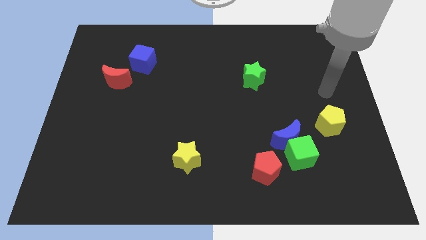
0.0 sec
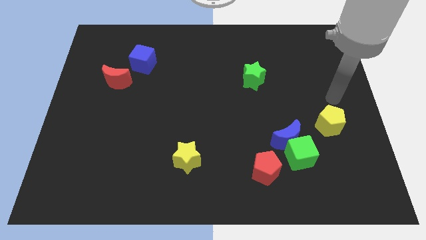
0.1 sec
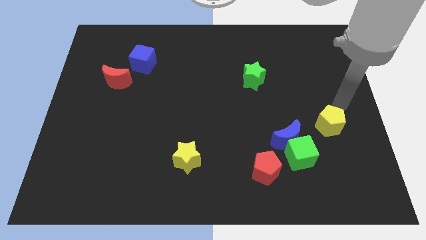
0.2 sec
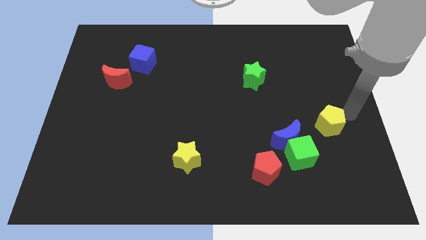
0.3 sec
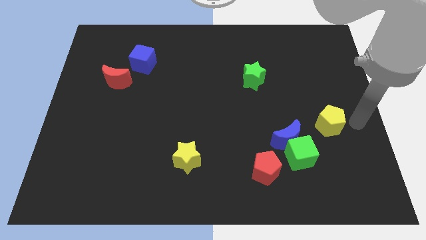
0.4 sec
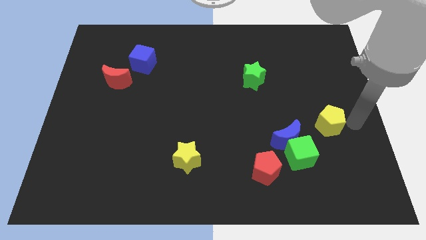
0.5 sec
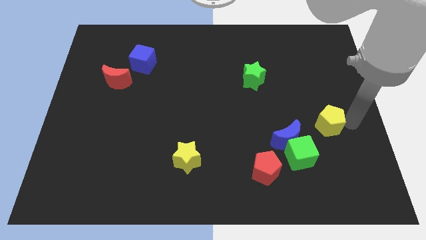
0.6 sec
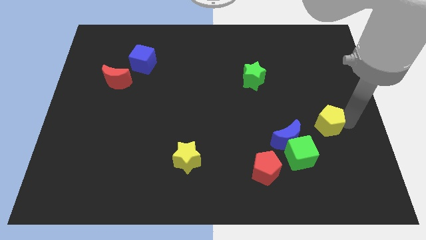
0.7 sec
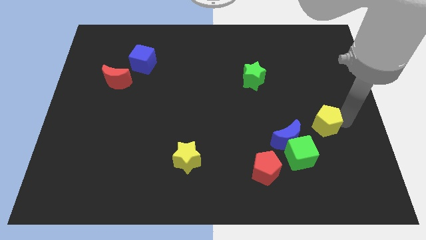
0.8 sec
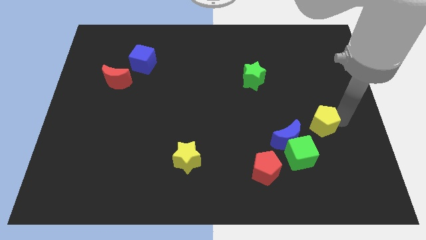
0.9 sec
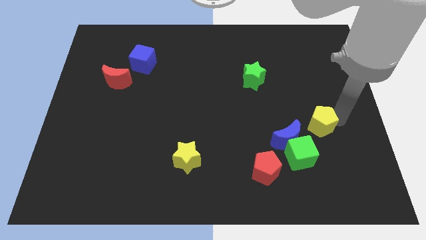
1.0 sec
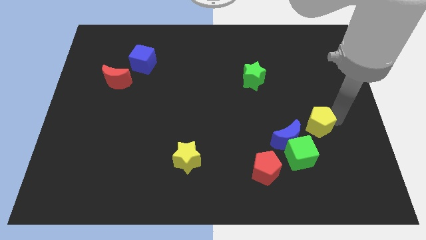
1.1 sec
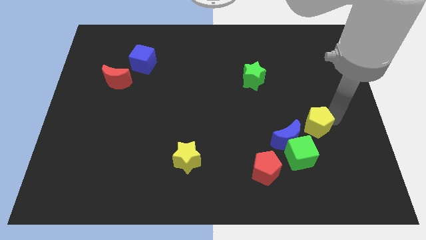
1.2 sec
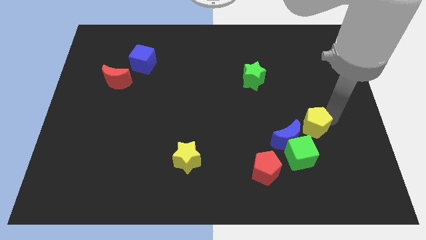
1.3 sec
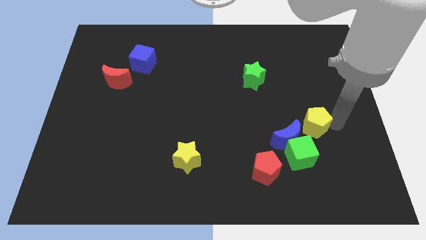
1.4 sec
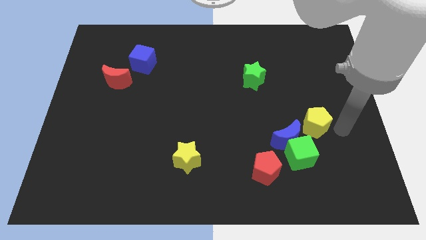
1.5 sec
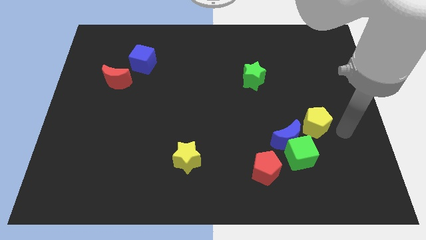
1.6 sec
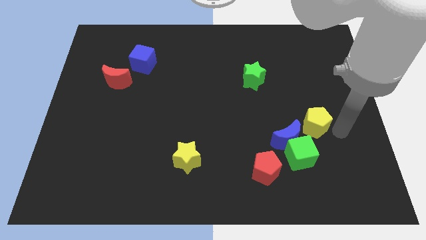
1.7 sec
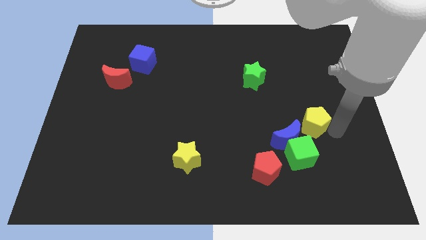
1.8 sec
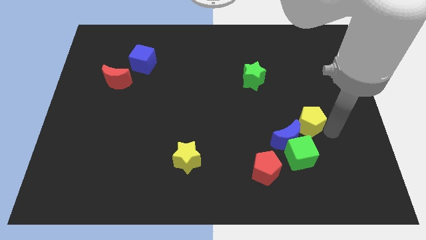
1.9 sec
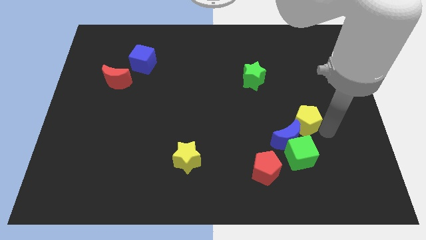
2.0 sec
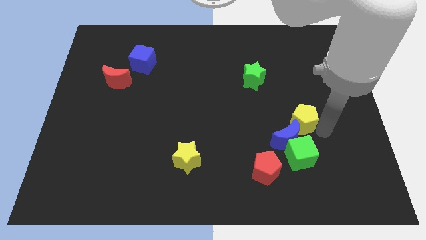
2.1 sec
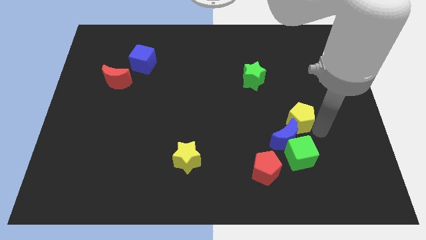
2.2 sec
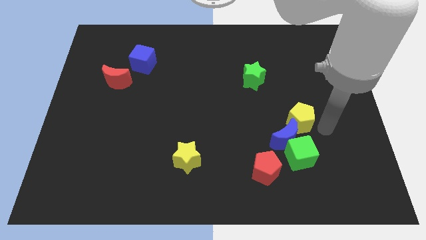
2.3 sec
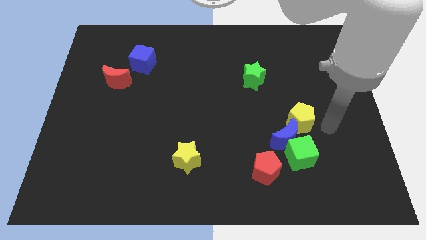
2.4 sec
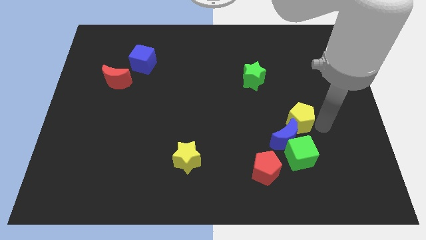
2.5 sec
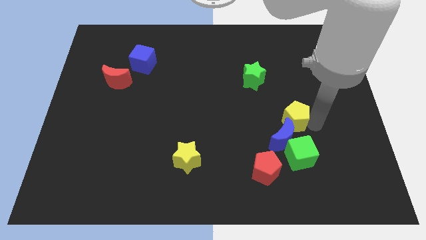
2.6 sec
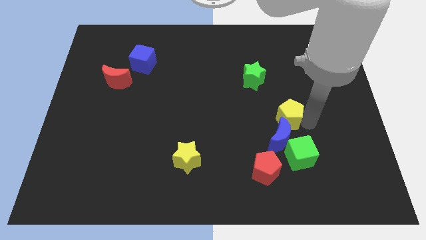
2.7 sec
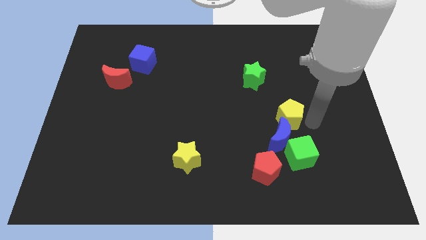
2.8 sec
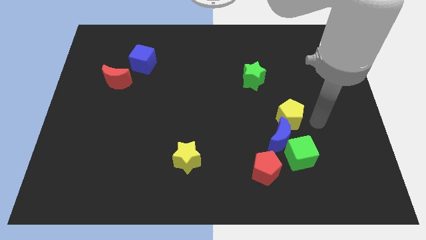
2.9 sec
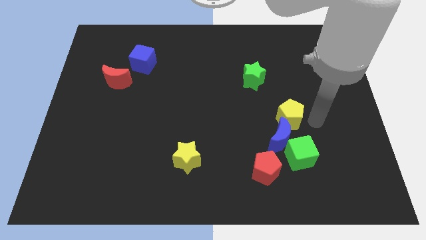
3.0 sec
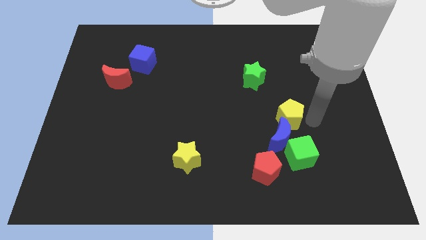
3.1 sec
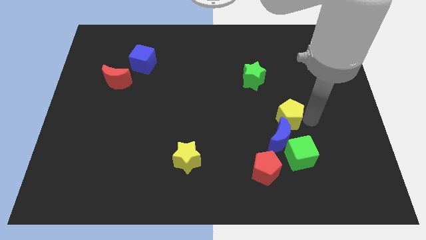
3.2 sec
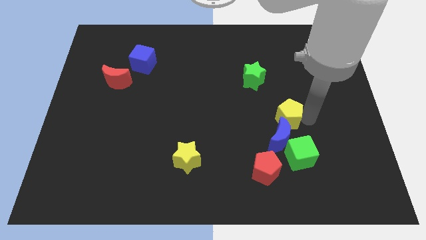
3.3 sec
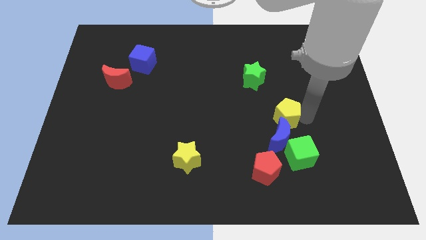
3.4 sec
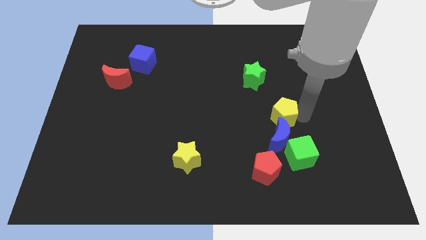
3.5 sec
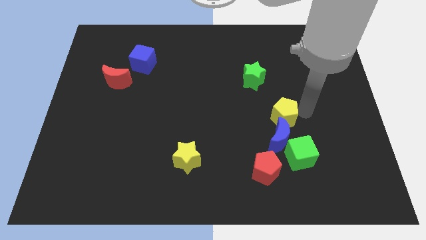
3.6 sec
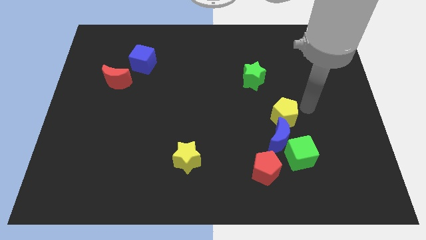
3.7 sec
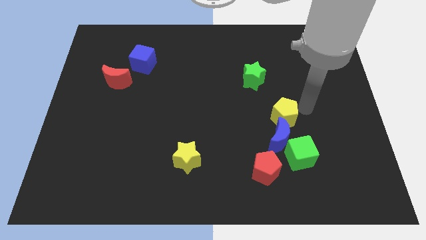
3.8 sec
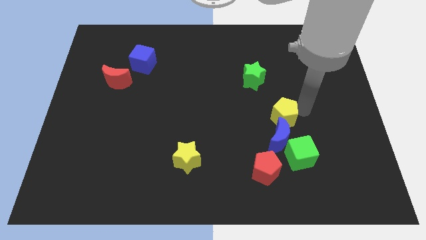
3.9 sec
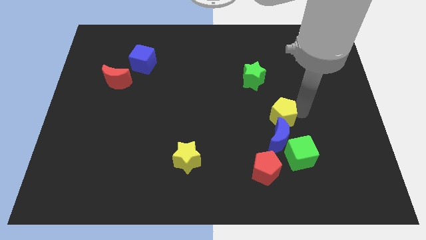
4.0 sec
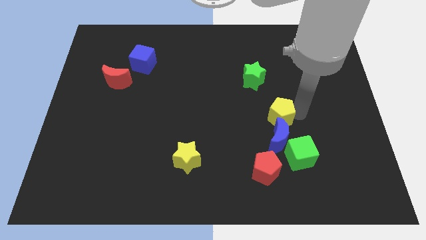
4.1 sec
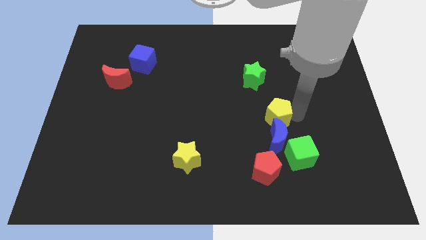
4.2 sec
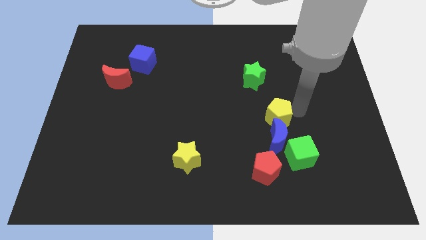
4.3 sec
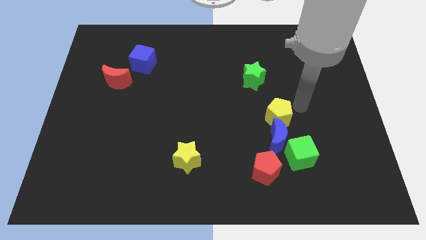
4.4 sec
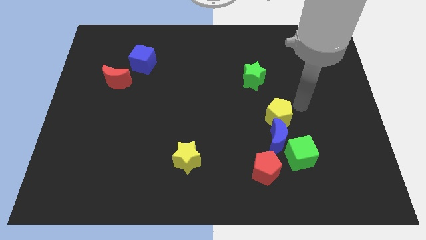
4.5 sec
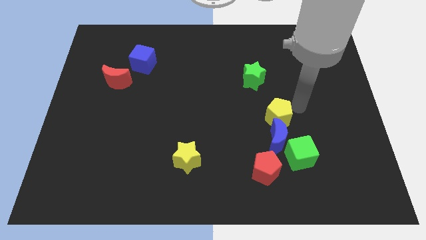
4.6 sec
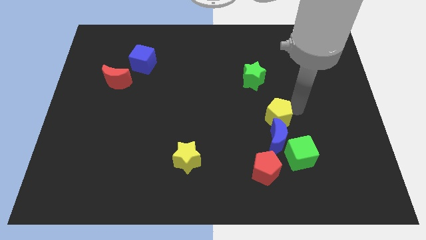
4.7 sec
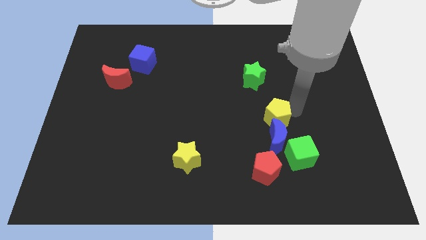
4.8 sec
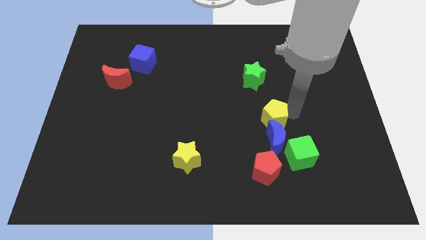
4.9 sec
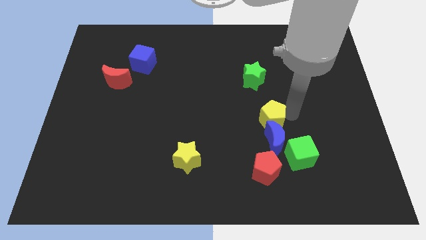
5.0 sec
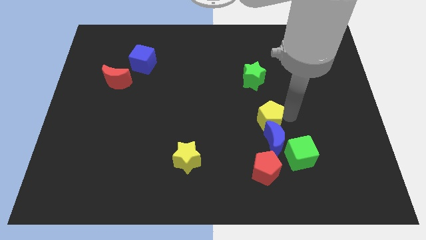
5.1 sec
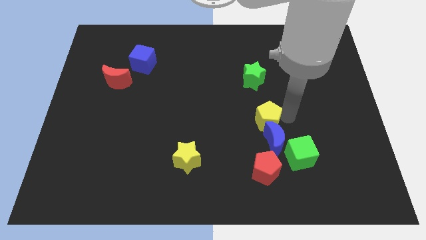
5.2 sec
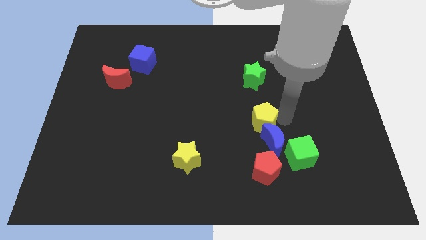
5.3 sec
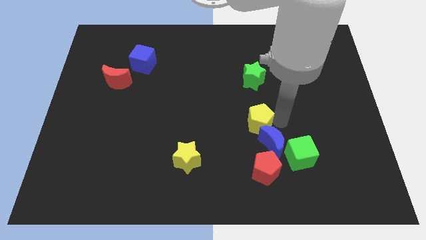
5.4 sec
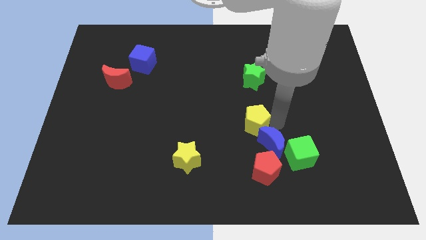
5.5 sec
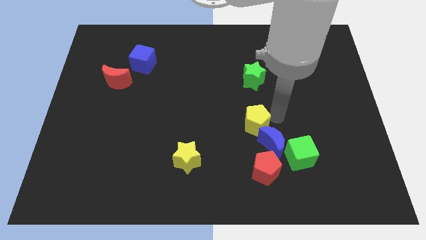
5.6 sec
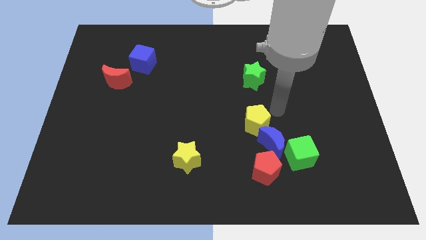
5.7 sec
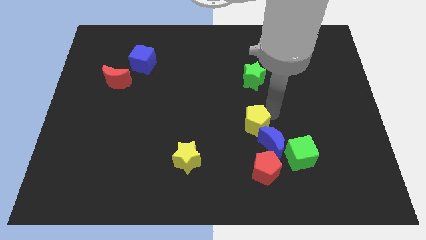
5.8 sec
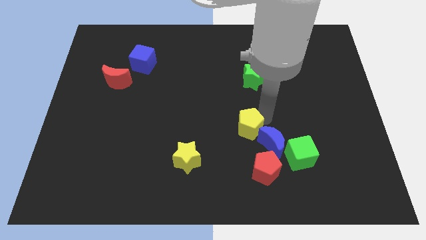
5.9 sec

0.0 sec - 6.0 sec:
slide the yellow pentagon just left of the blue moon

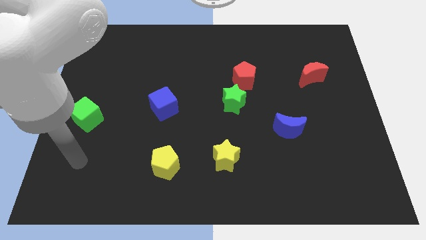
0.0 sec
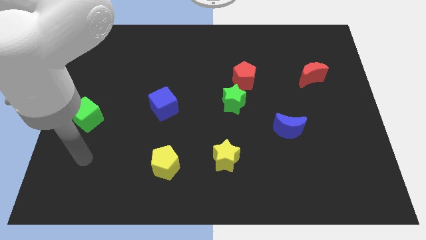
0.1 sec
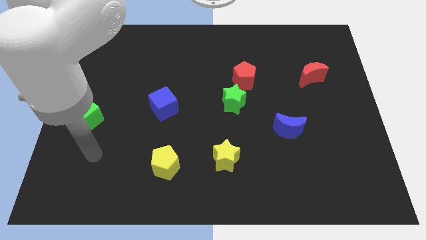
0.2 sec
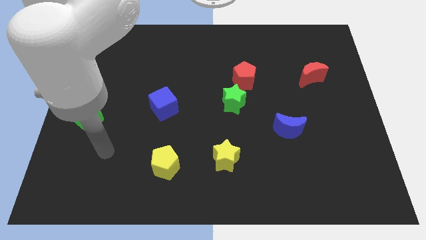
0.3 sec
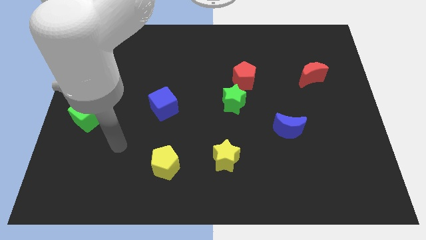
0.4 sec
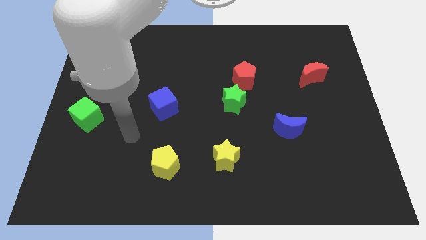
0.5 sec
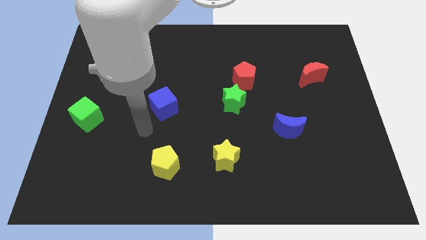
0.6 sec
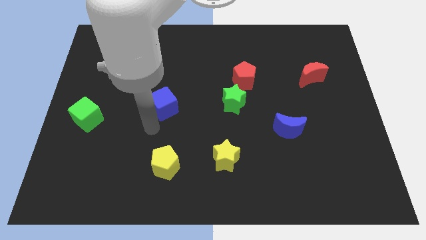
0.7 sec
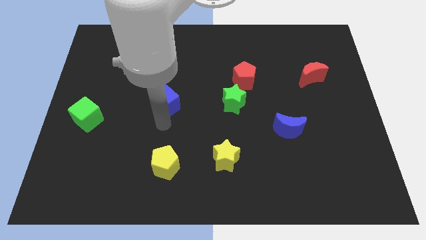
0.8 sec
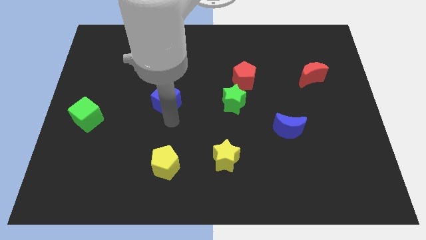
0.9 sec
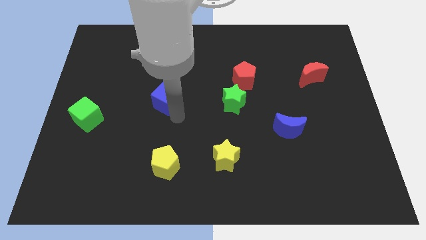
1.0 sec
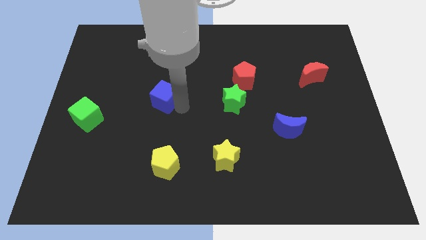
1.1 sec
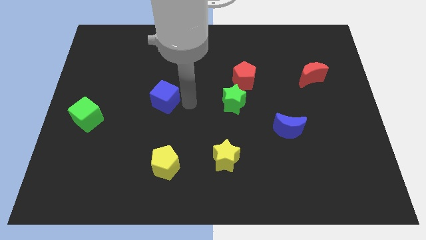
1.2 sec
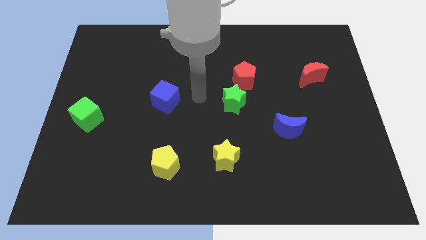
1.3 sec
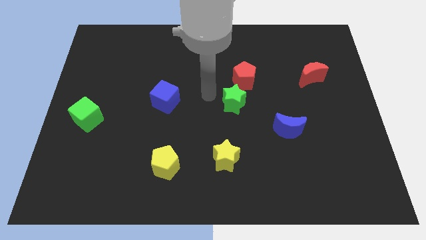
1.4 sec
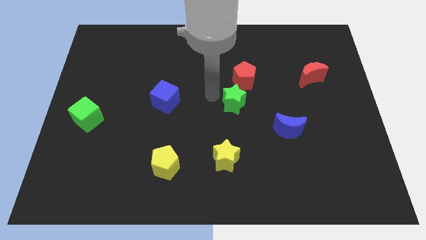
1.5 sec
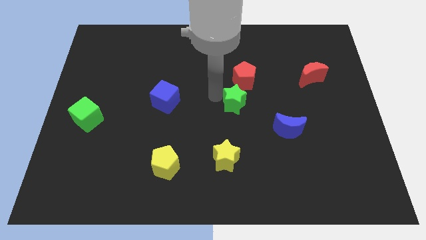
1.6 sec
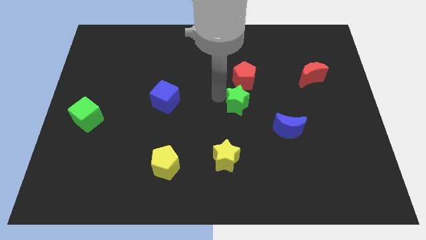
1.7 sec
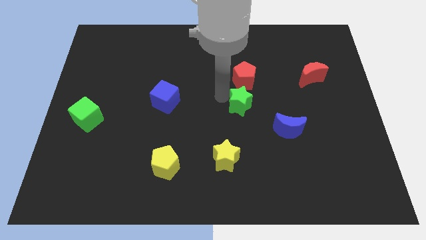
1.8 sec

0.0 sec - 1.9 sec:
put the green star to the top left of the blue moon
